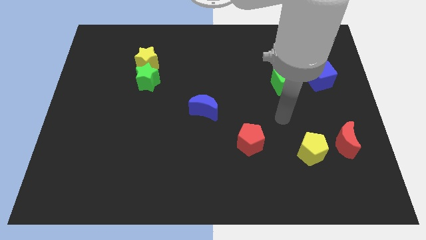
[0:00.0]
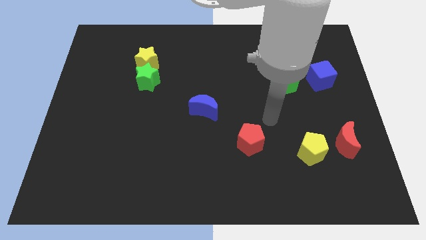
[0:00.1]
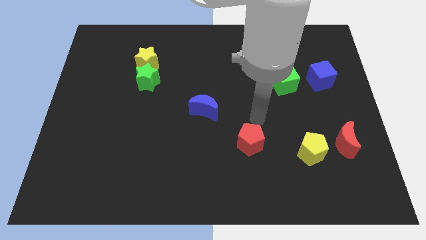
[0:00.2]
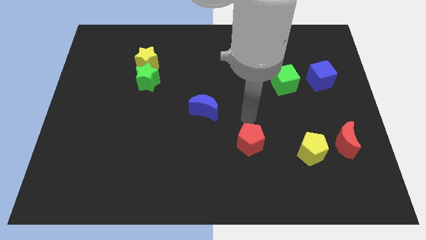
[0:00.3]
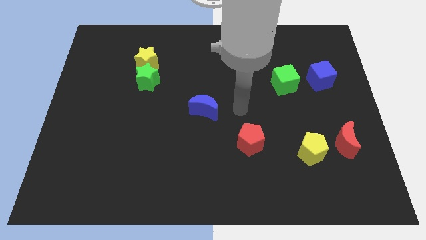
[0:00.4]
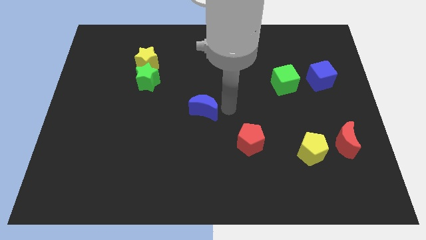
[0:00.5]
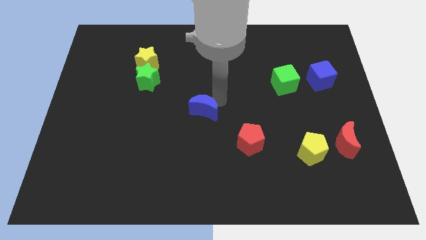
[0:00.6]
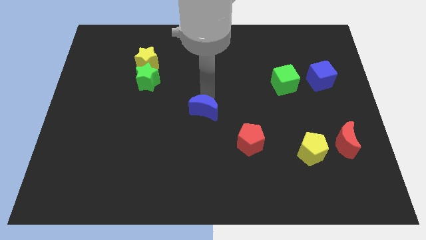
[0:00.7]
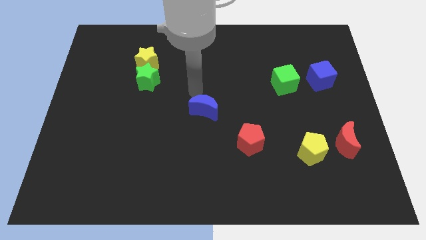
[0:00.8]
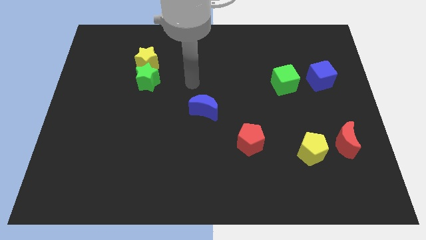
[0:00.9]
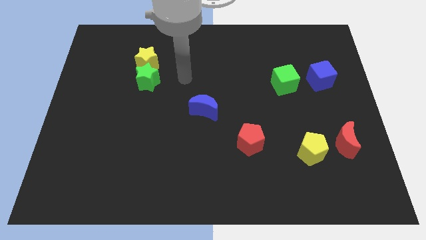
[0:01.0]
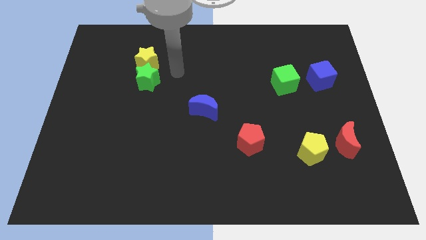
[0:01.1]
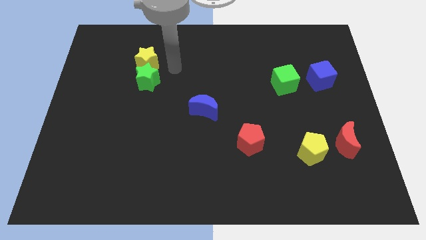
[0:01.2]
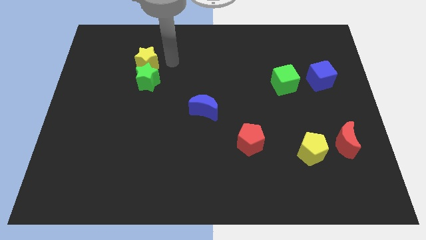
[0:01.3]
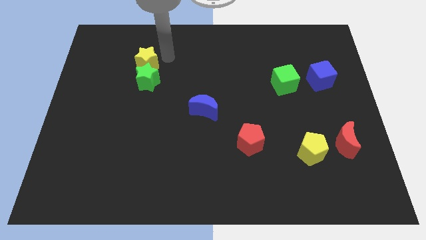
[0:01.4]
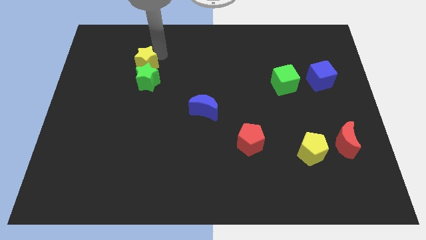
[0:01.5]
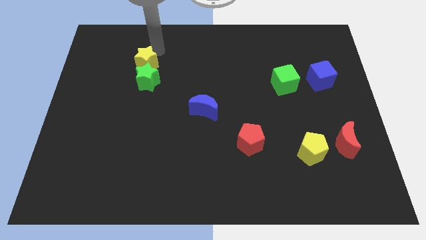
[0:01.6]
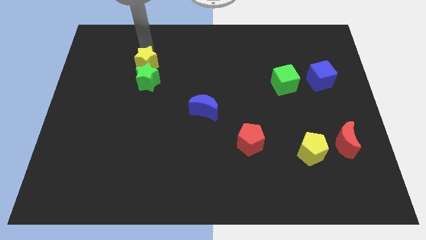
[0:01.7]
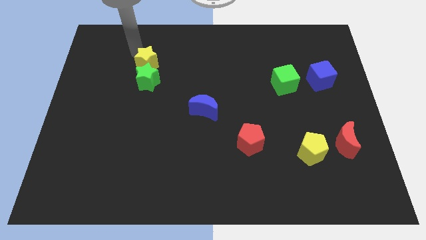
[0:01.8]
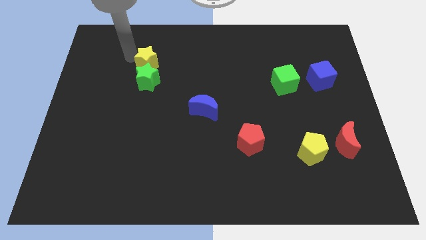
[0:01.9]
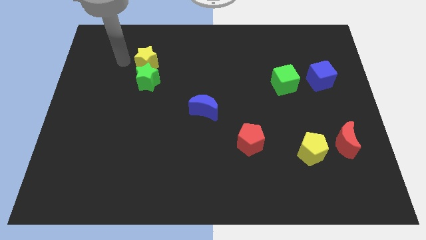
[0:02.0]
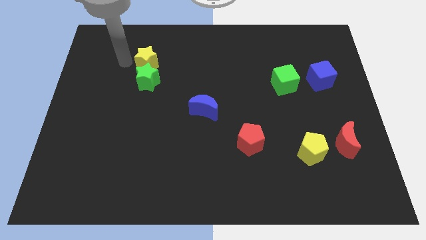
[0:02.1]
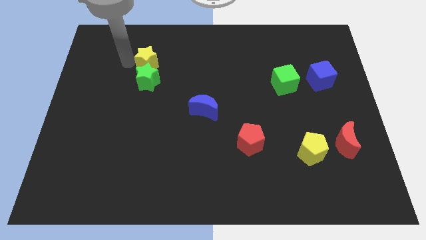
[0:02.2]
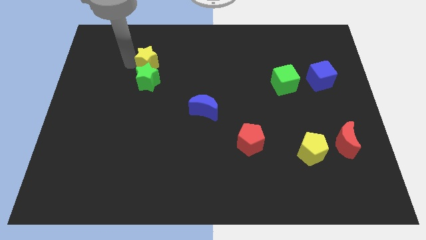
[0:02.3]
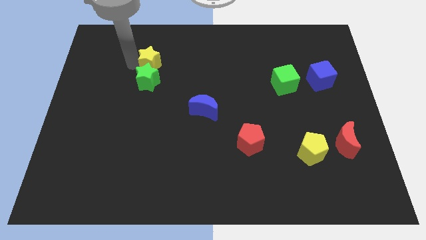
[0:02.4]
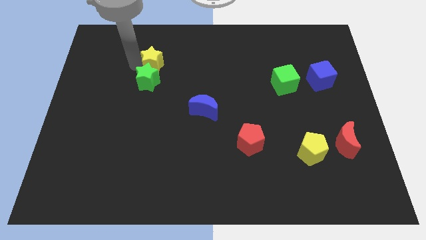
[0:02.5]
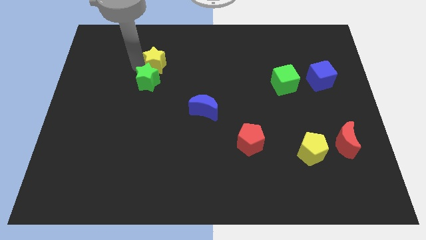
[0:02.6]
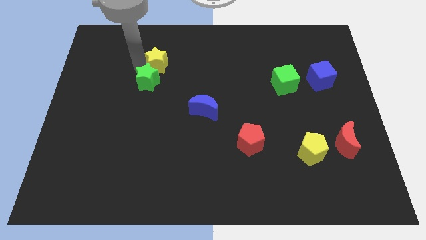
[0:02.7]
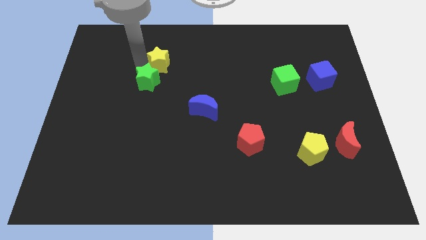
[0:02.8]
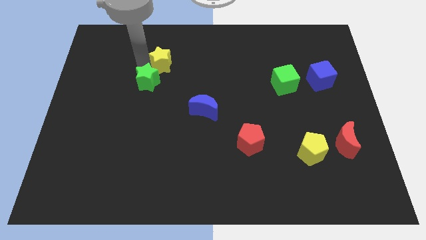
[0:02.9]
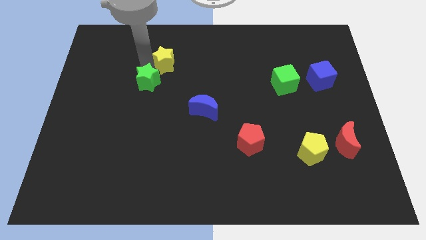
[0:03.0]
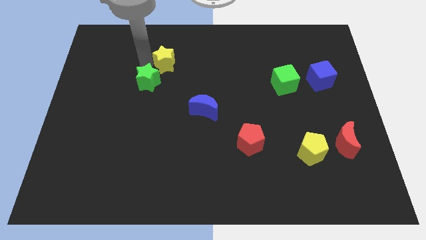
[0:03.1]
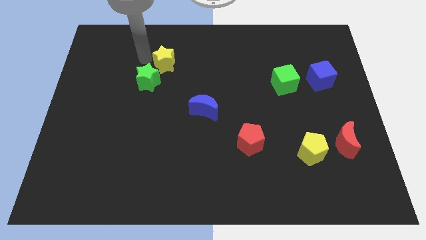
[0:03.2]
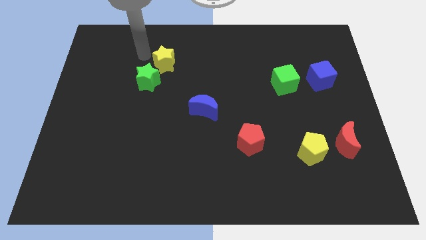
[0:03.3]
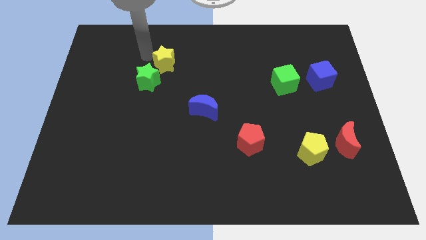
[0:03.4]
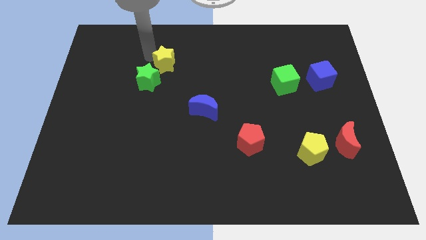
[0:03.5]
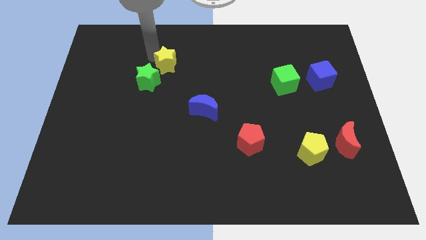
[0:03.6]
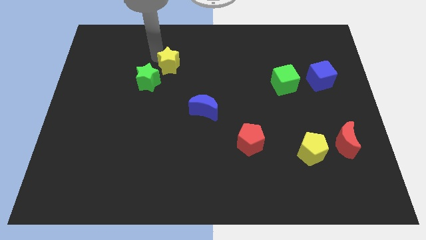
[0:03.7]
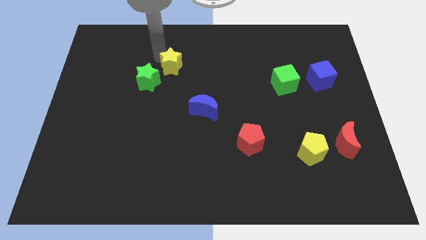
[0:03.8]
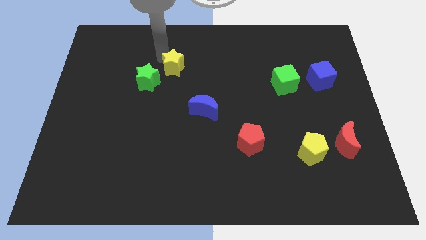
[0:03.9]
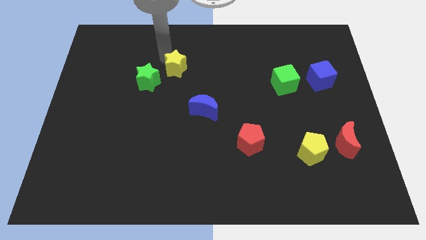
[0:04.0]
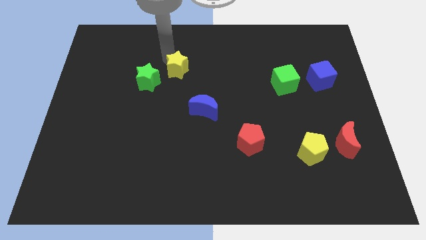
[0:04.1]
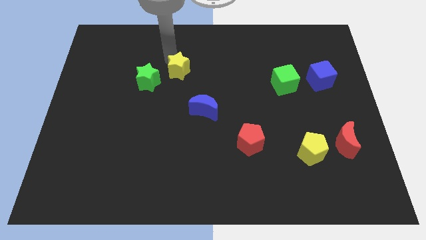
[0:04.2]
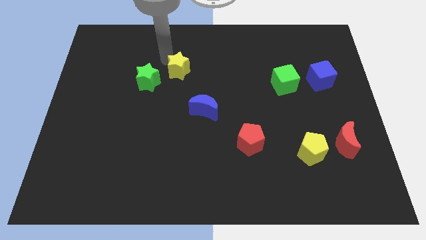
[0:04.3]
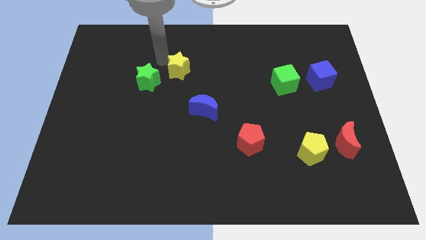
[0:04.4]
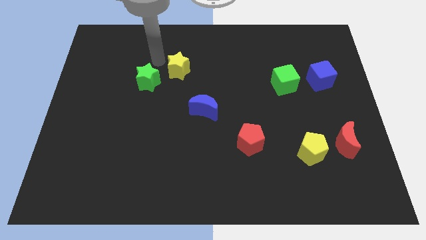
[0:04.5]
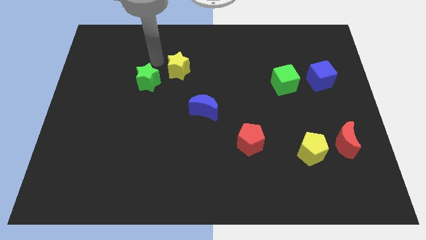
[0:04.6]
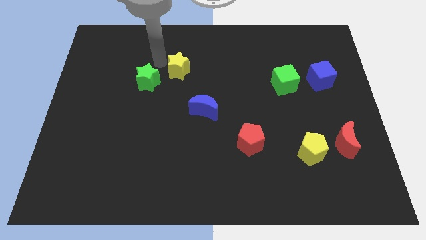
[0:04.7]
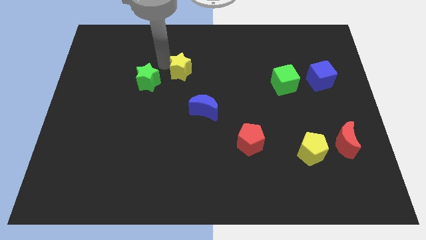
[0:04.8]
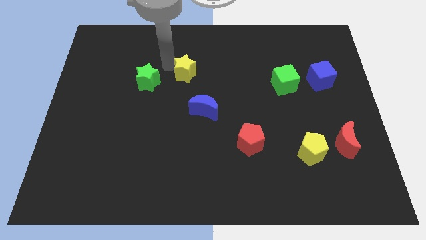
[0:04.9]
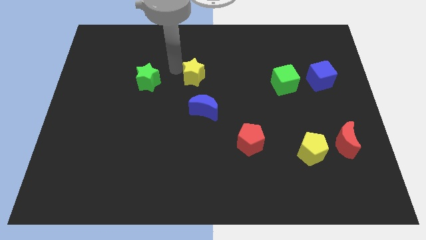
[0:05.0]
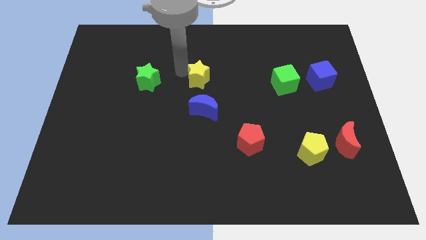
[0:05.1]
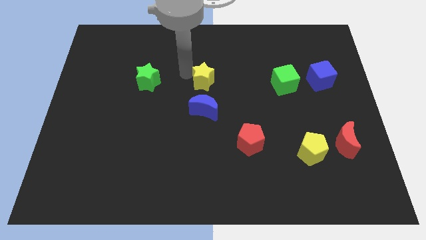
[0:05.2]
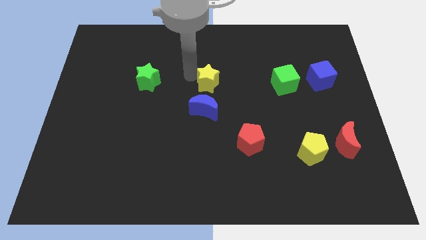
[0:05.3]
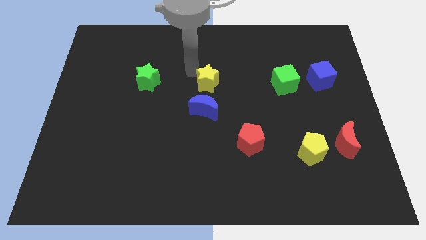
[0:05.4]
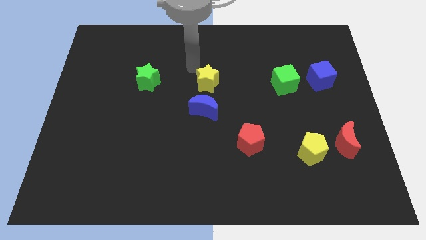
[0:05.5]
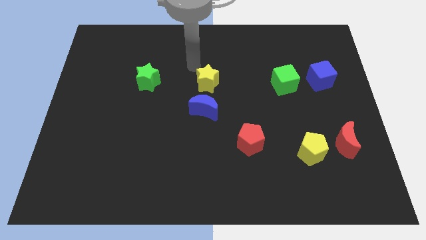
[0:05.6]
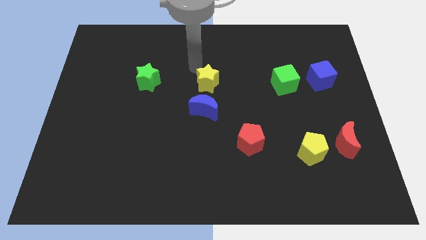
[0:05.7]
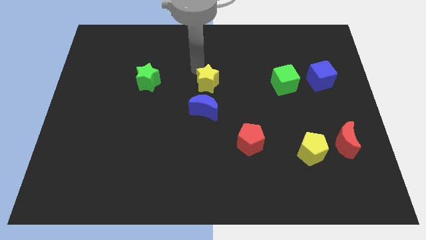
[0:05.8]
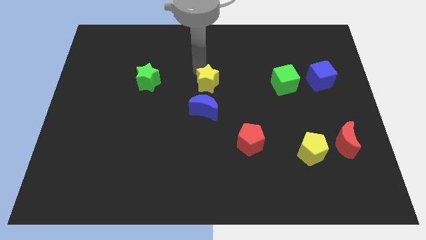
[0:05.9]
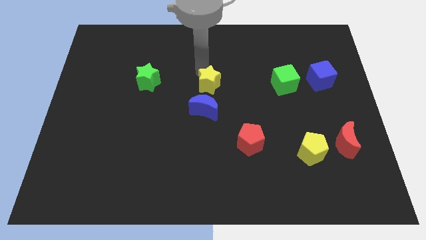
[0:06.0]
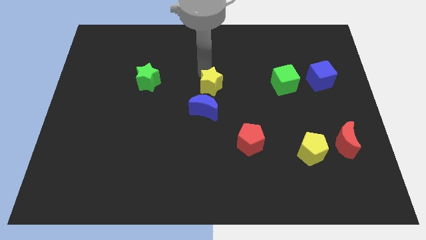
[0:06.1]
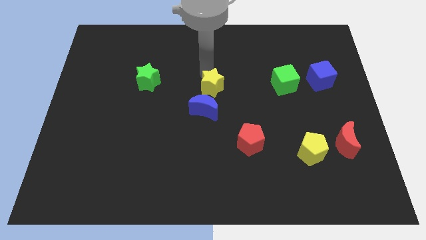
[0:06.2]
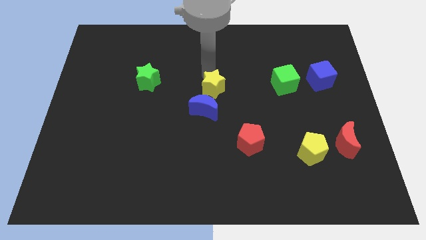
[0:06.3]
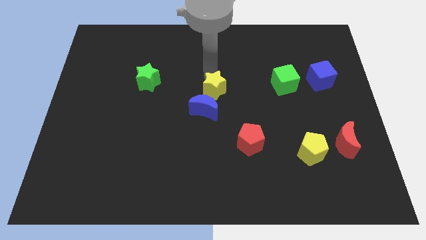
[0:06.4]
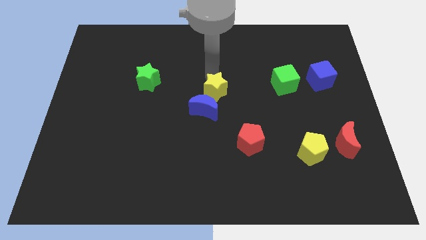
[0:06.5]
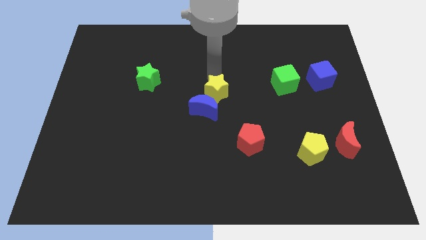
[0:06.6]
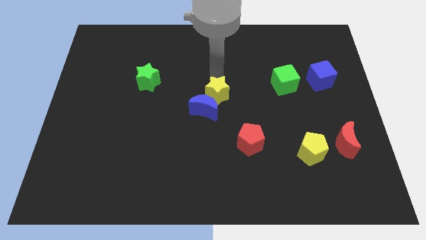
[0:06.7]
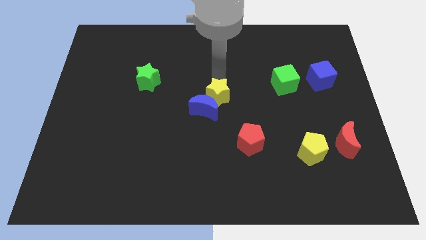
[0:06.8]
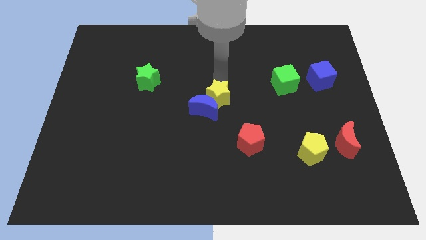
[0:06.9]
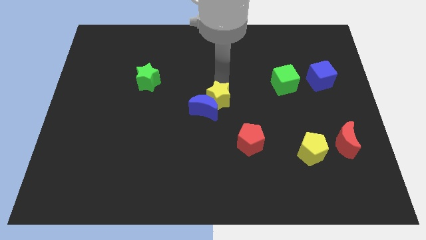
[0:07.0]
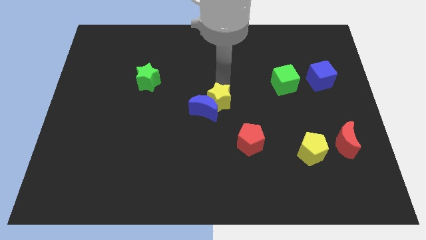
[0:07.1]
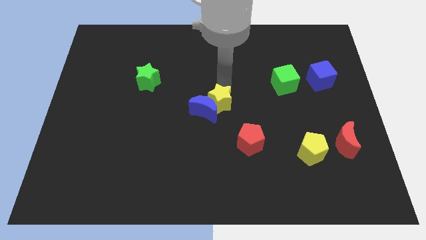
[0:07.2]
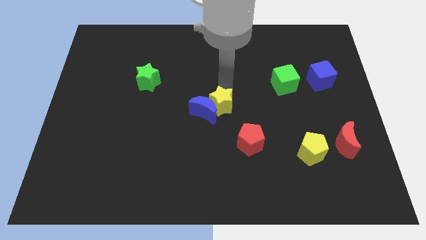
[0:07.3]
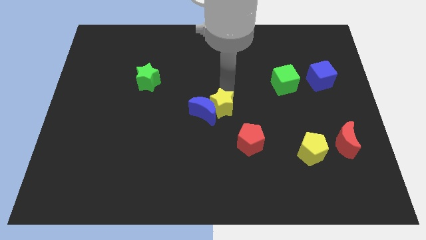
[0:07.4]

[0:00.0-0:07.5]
move the yellow star to the top left of the red pentagon
